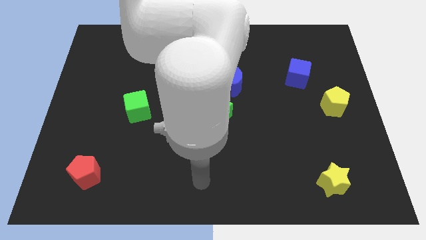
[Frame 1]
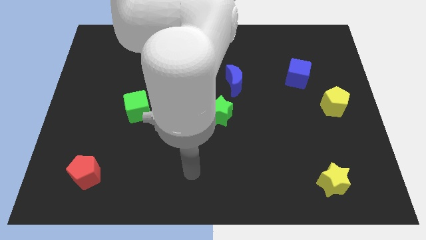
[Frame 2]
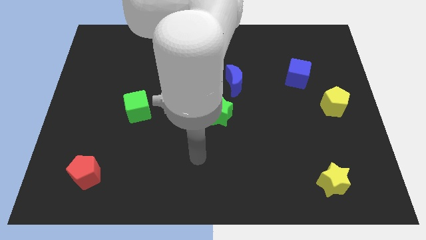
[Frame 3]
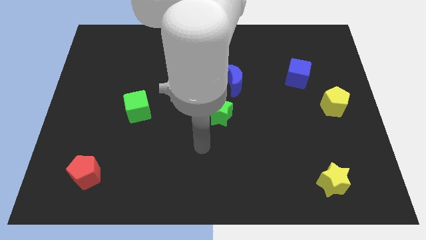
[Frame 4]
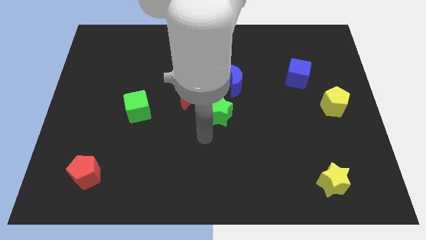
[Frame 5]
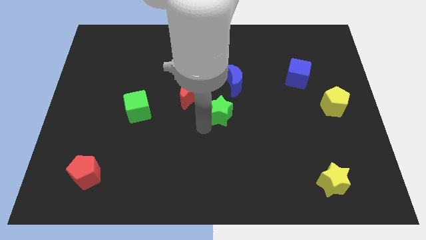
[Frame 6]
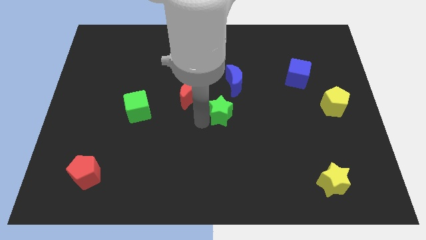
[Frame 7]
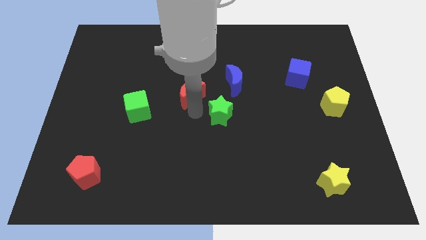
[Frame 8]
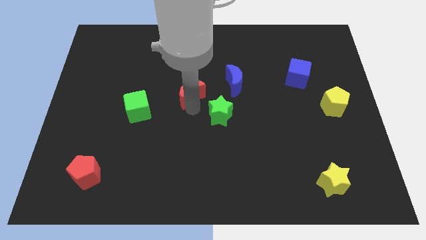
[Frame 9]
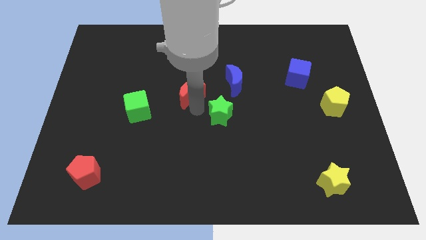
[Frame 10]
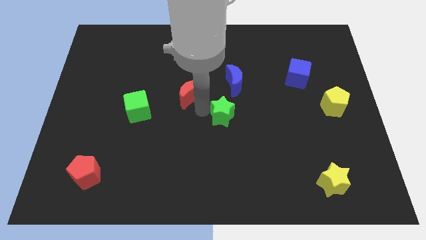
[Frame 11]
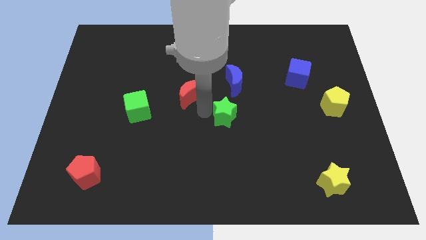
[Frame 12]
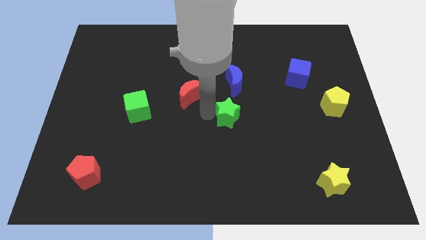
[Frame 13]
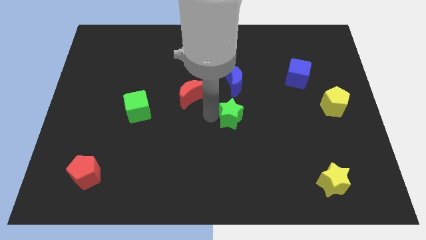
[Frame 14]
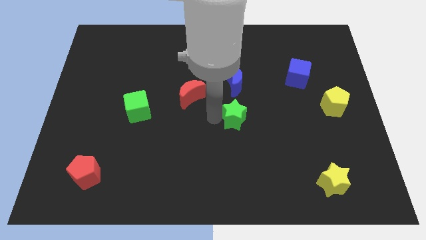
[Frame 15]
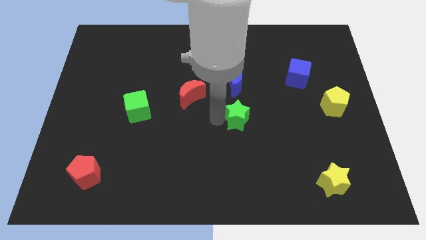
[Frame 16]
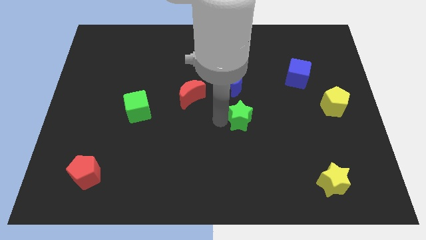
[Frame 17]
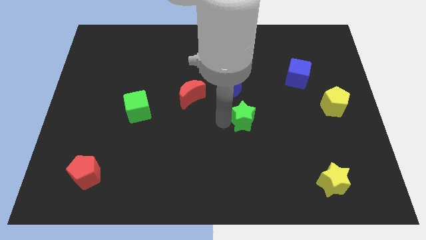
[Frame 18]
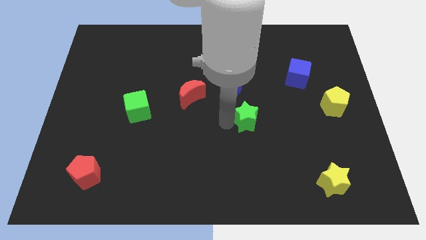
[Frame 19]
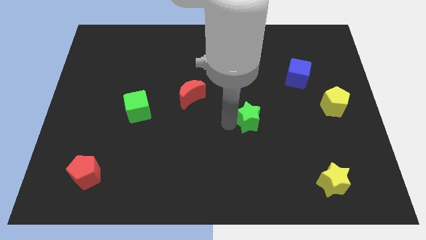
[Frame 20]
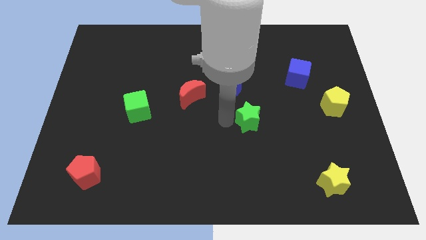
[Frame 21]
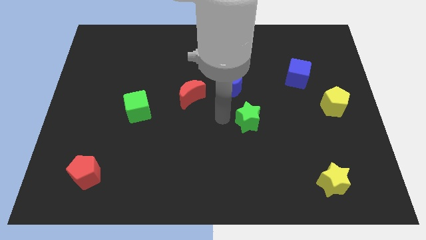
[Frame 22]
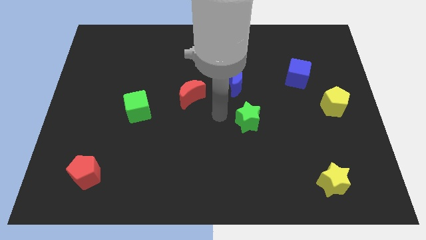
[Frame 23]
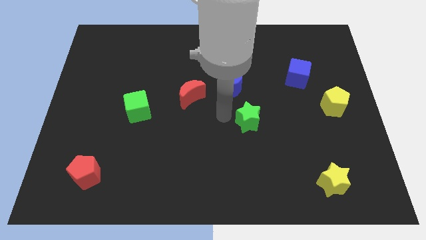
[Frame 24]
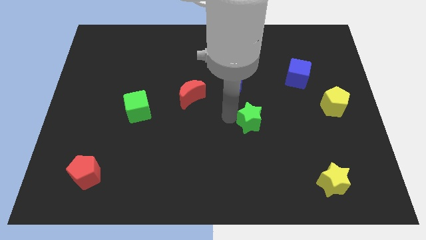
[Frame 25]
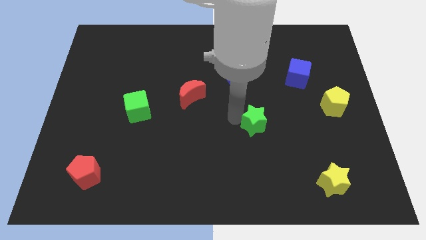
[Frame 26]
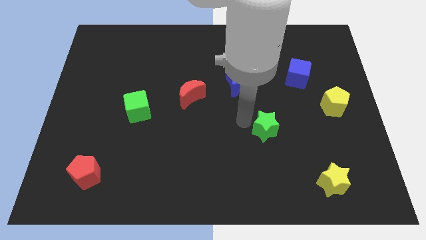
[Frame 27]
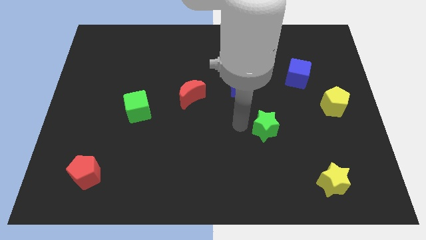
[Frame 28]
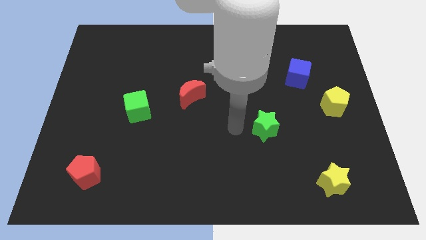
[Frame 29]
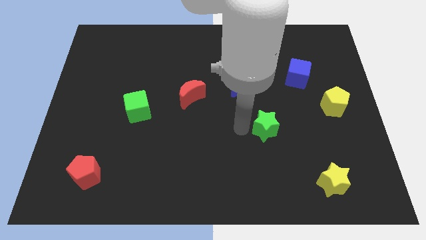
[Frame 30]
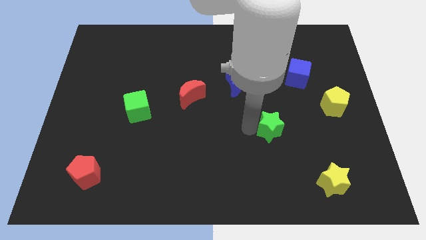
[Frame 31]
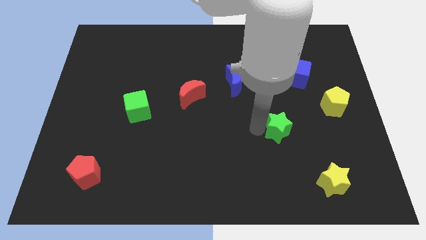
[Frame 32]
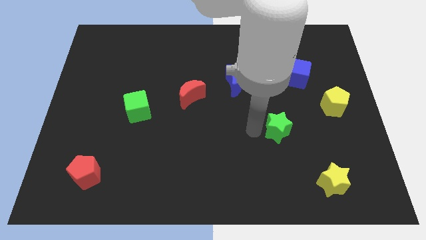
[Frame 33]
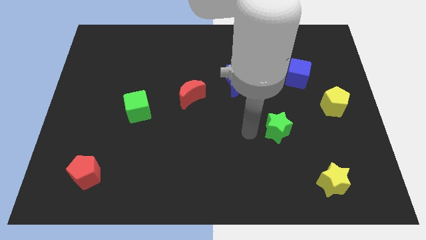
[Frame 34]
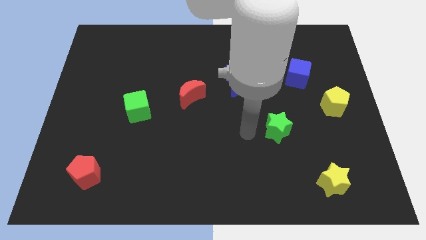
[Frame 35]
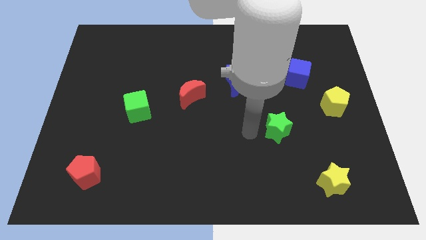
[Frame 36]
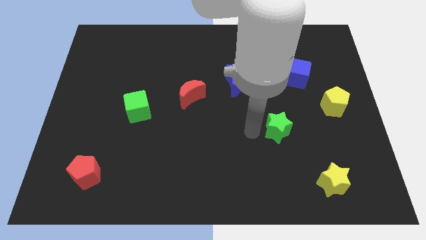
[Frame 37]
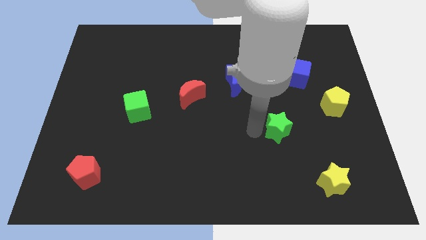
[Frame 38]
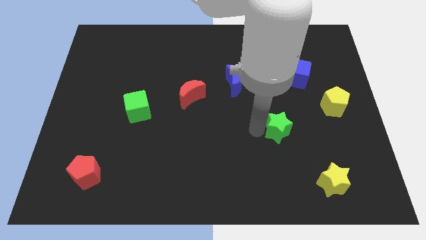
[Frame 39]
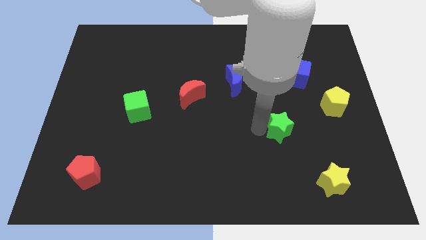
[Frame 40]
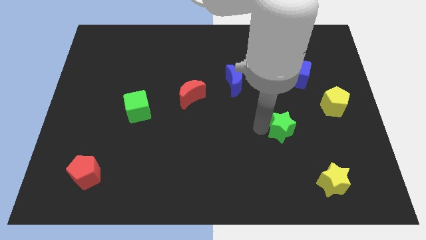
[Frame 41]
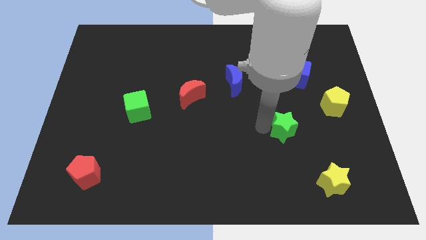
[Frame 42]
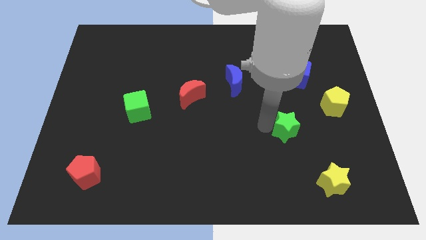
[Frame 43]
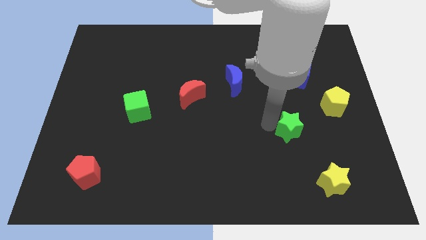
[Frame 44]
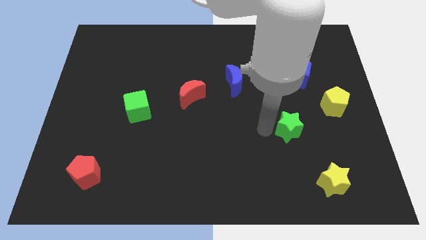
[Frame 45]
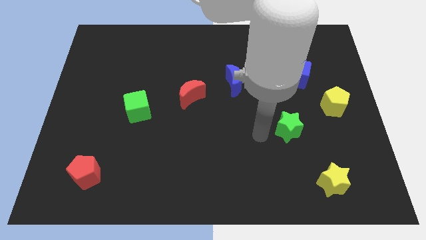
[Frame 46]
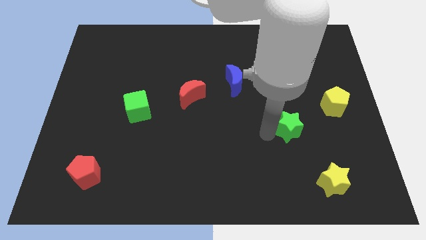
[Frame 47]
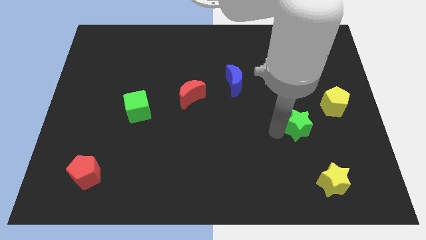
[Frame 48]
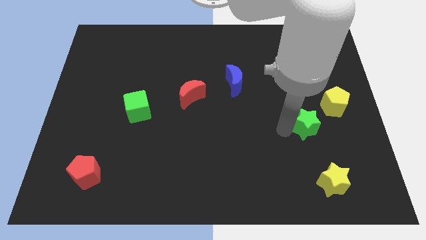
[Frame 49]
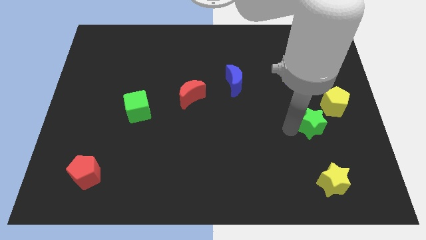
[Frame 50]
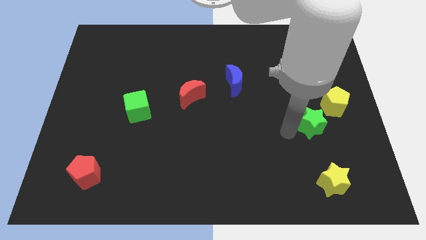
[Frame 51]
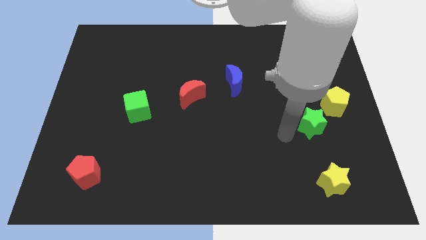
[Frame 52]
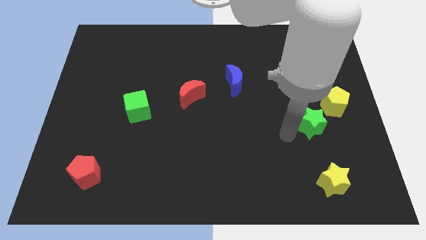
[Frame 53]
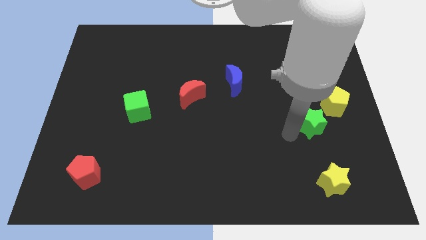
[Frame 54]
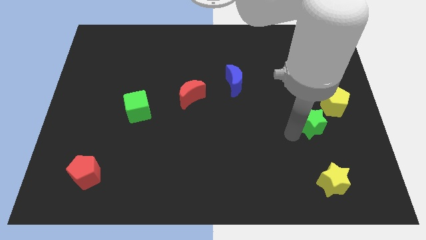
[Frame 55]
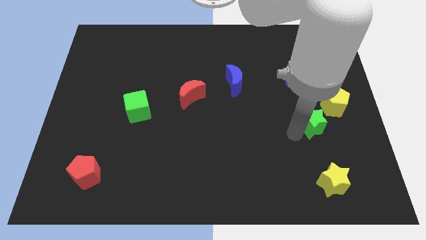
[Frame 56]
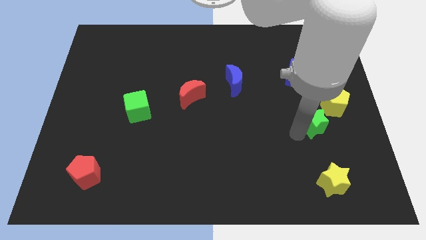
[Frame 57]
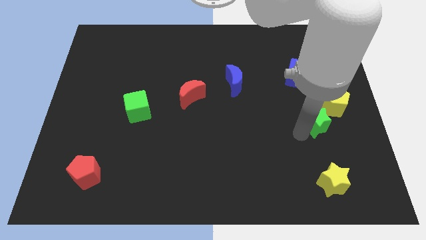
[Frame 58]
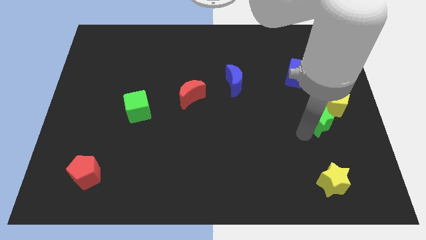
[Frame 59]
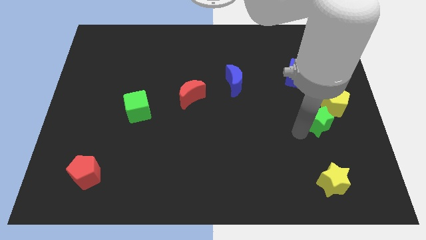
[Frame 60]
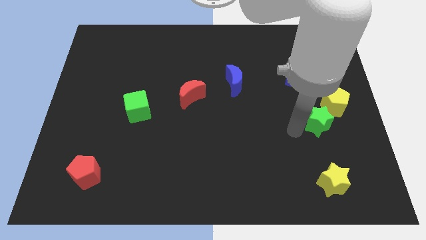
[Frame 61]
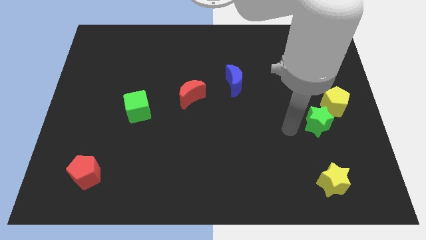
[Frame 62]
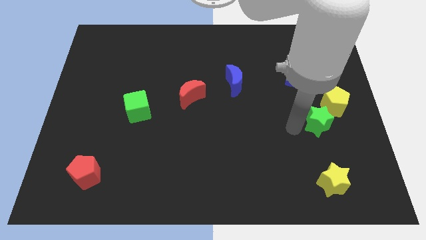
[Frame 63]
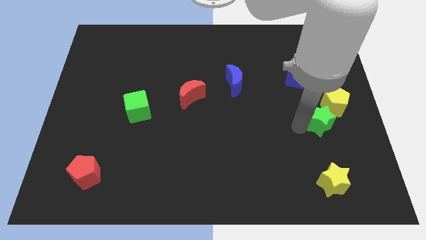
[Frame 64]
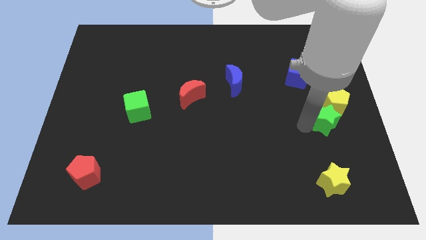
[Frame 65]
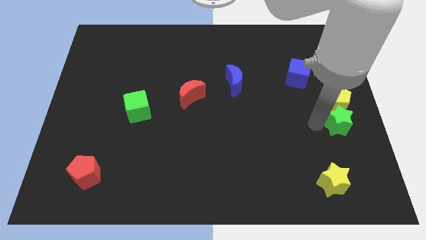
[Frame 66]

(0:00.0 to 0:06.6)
push the green star to the center right

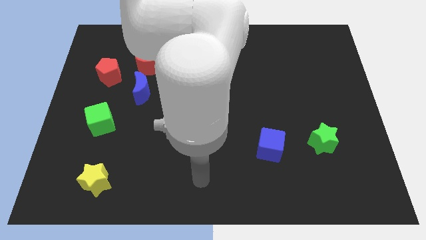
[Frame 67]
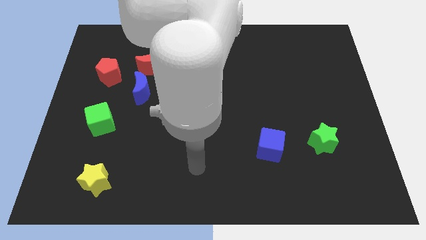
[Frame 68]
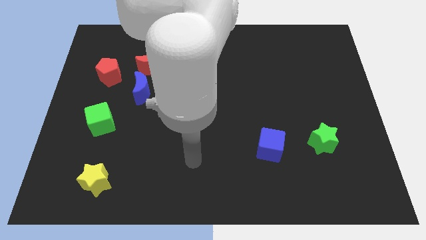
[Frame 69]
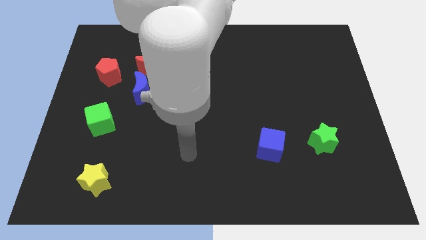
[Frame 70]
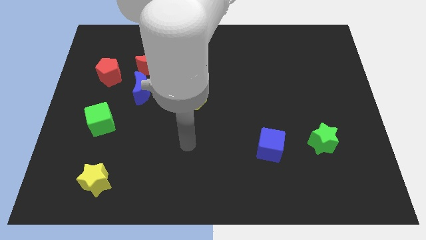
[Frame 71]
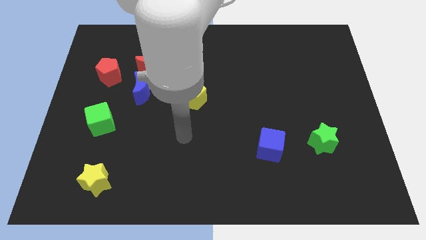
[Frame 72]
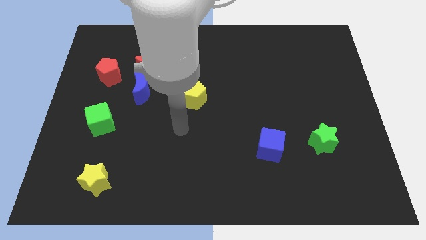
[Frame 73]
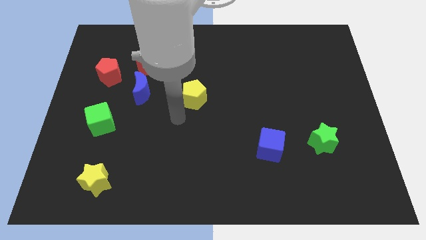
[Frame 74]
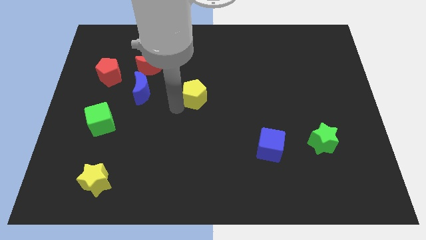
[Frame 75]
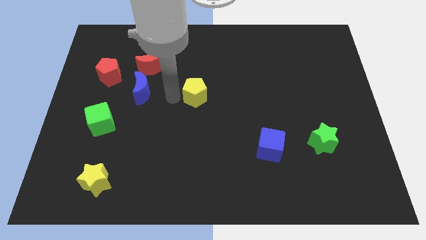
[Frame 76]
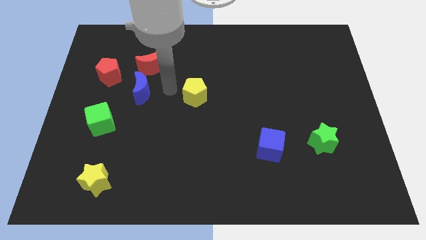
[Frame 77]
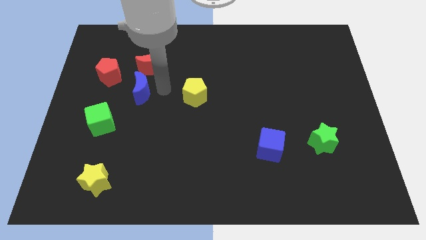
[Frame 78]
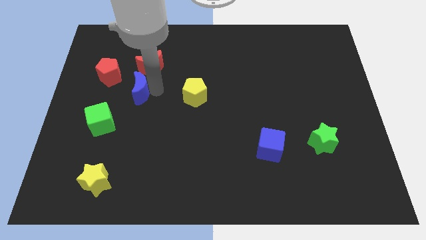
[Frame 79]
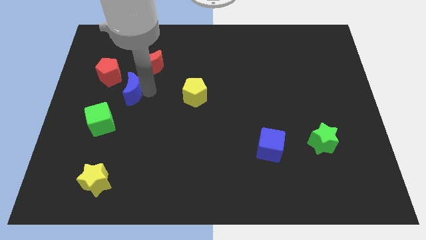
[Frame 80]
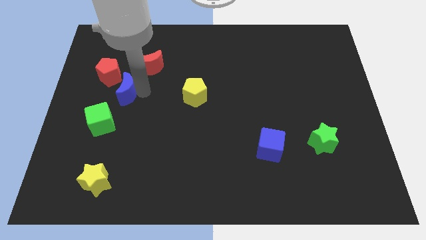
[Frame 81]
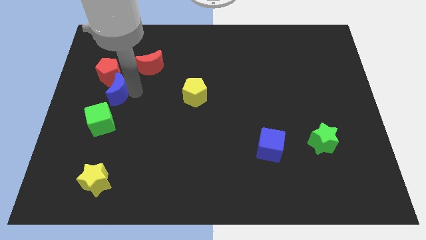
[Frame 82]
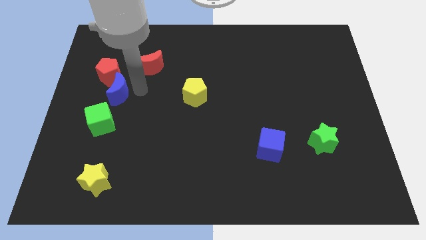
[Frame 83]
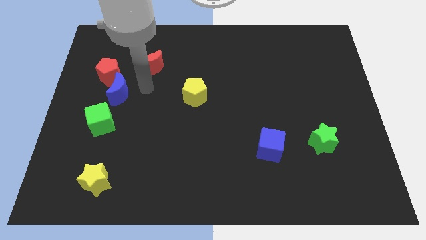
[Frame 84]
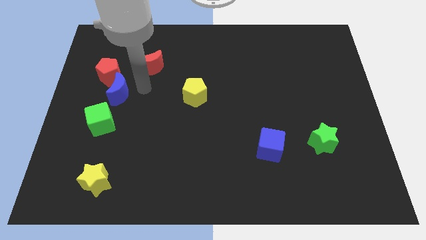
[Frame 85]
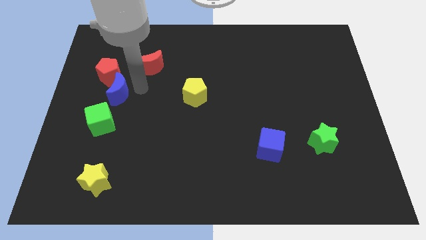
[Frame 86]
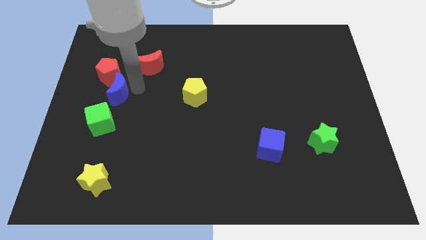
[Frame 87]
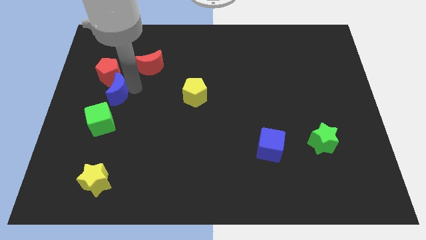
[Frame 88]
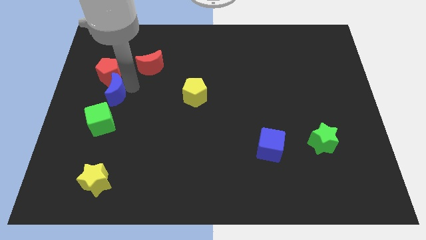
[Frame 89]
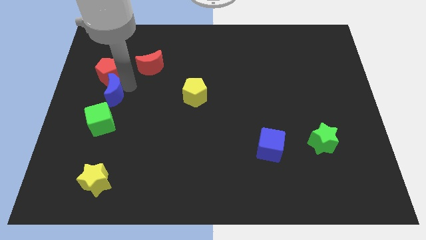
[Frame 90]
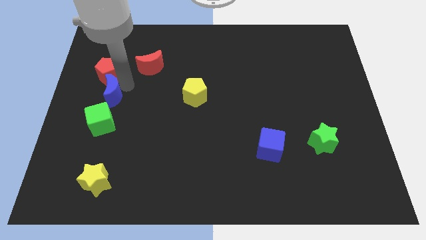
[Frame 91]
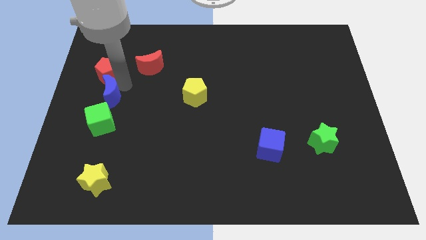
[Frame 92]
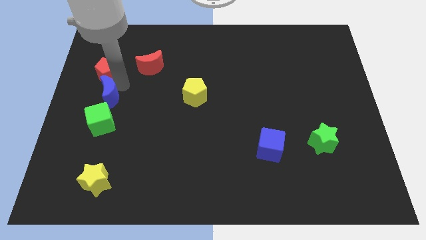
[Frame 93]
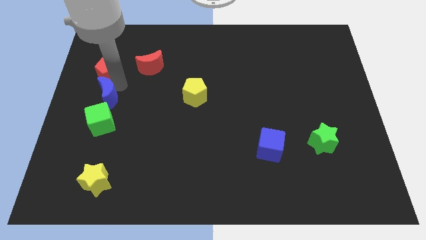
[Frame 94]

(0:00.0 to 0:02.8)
move the blue moon to the left side of the board
